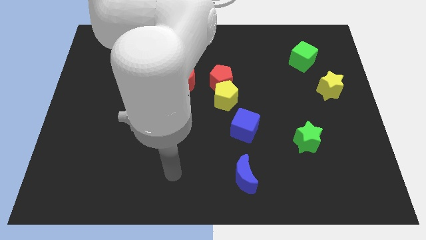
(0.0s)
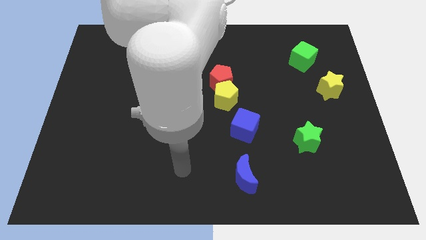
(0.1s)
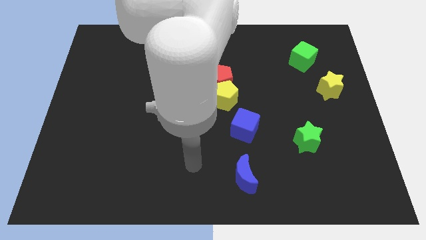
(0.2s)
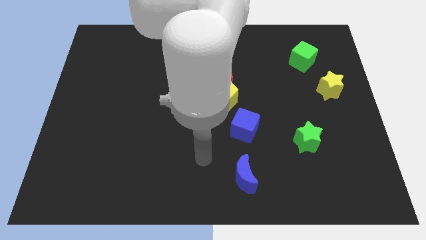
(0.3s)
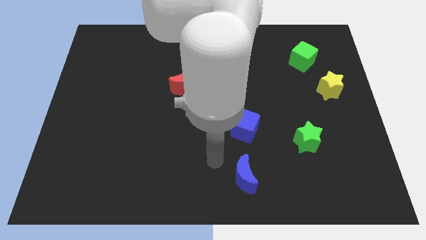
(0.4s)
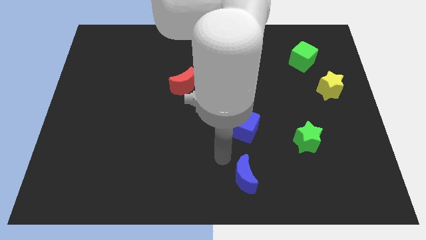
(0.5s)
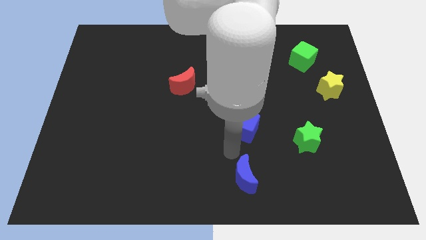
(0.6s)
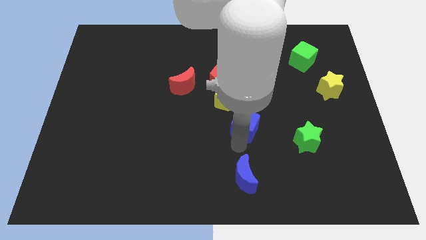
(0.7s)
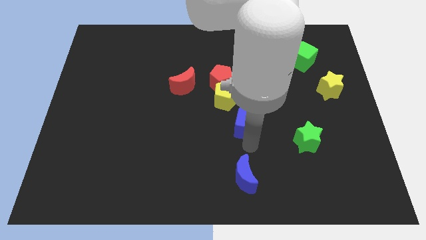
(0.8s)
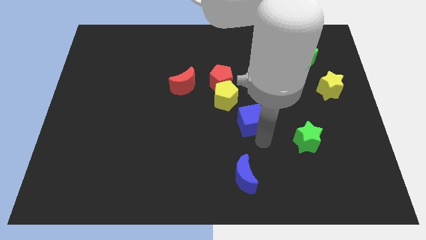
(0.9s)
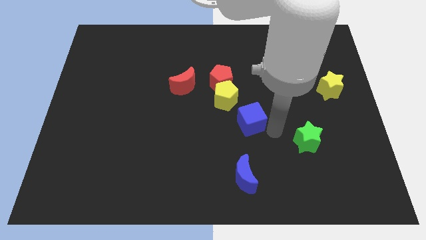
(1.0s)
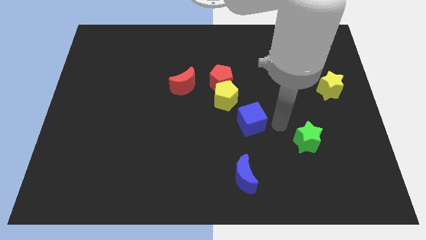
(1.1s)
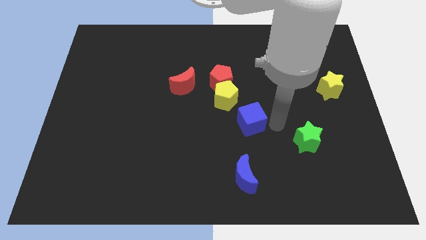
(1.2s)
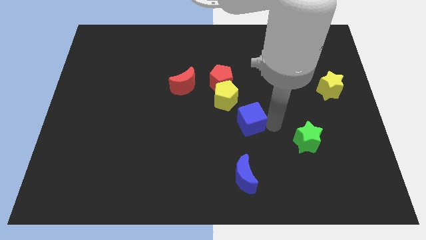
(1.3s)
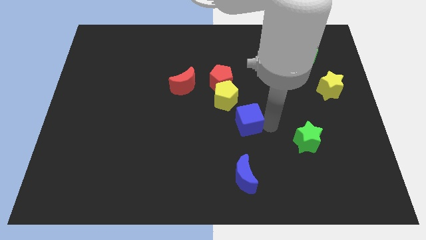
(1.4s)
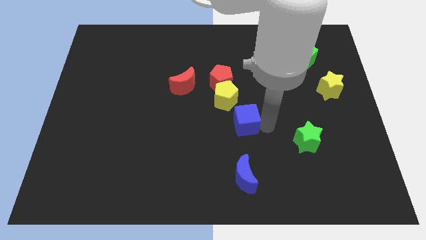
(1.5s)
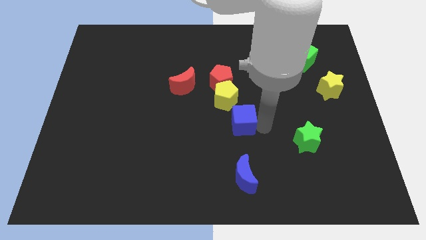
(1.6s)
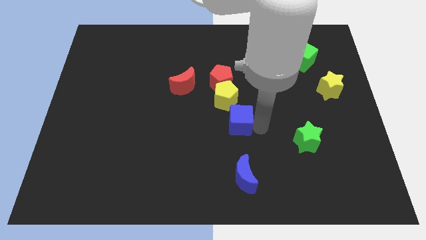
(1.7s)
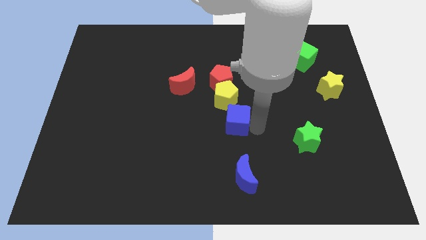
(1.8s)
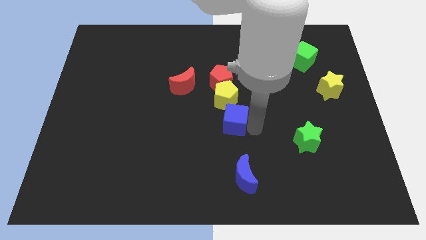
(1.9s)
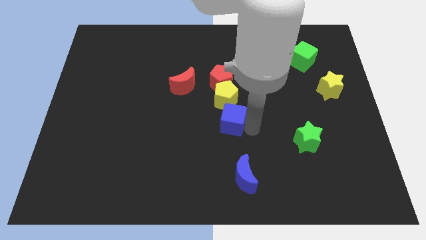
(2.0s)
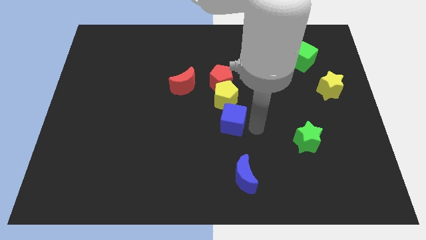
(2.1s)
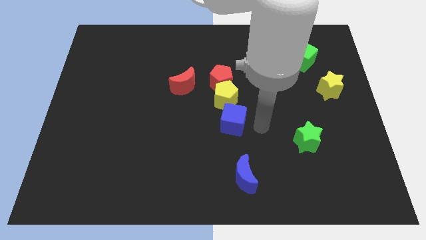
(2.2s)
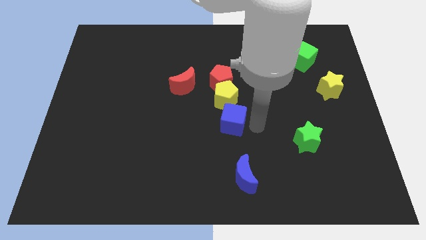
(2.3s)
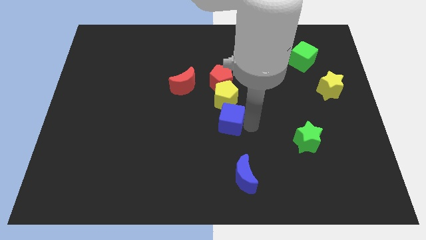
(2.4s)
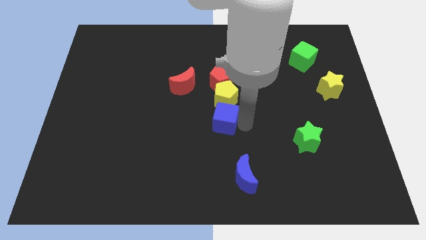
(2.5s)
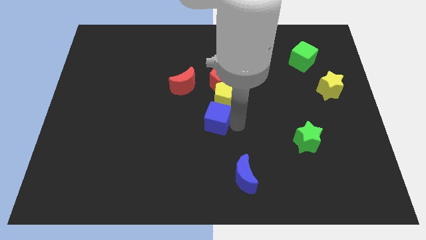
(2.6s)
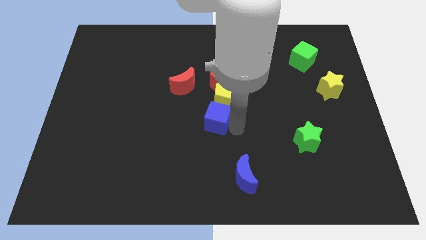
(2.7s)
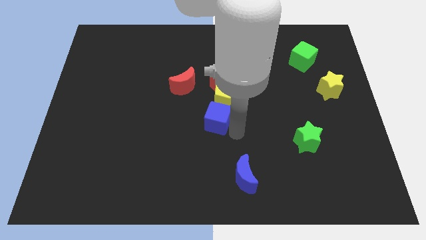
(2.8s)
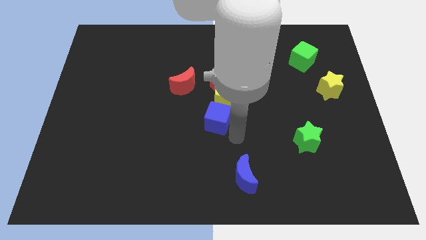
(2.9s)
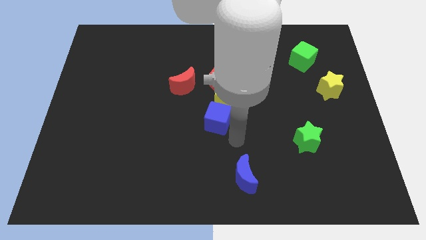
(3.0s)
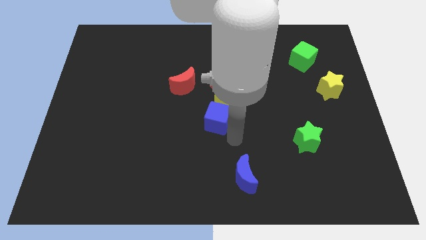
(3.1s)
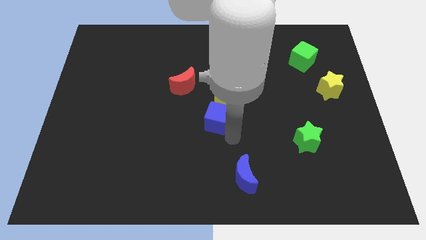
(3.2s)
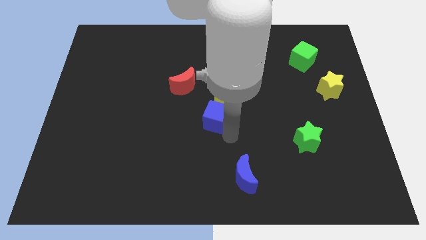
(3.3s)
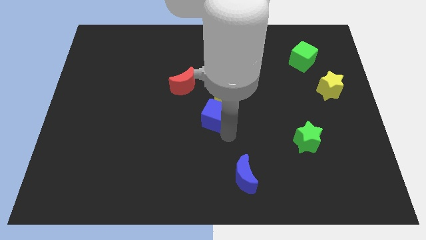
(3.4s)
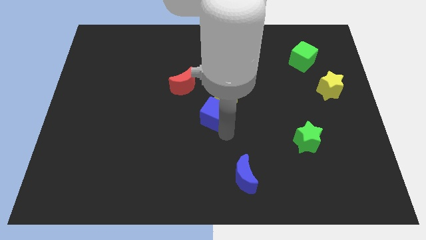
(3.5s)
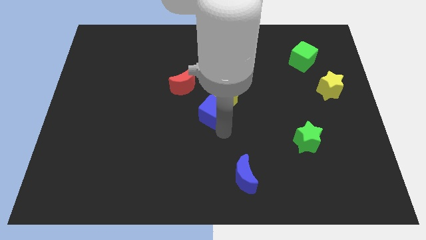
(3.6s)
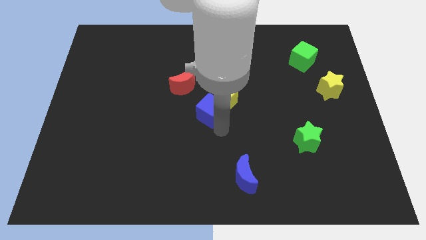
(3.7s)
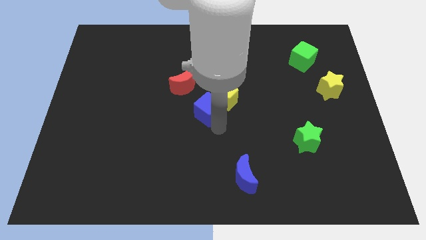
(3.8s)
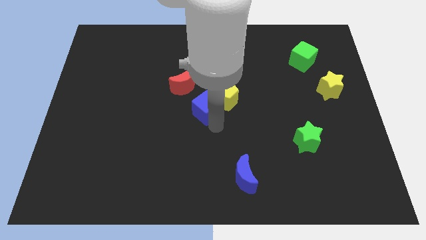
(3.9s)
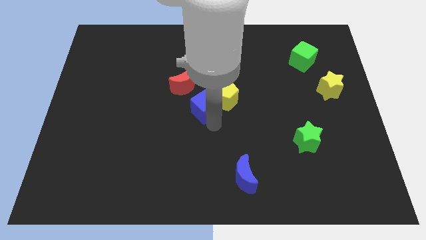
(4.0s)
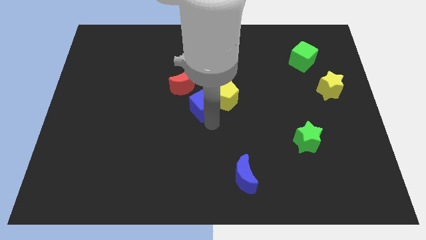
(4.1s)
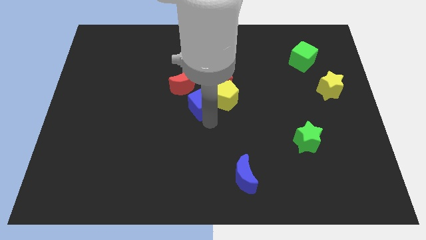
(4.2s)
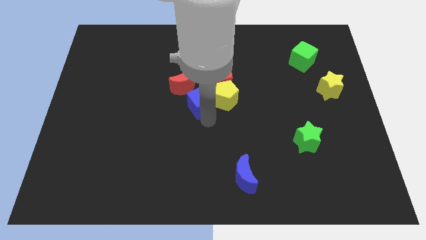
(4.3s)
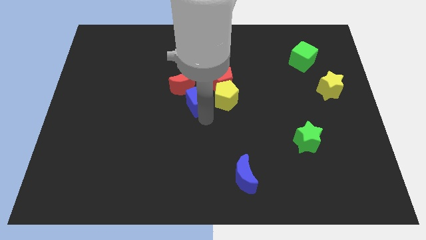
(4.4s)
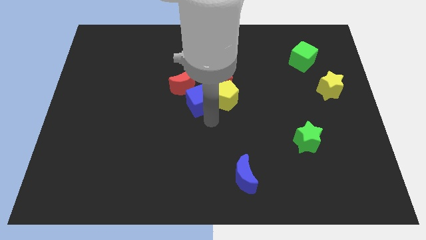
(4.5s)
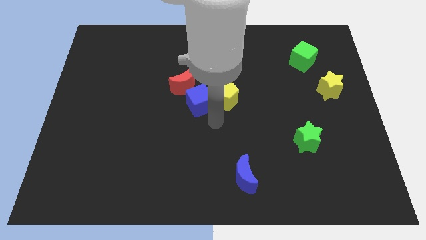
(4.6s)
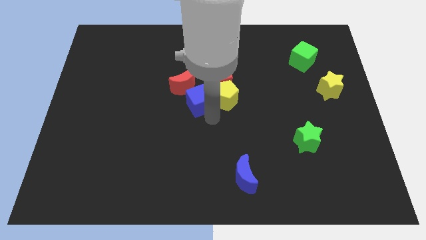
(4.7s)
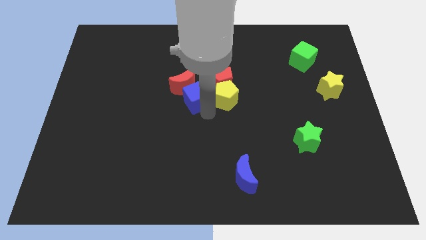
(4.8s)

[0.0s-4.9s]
move the blue cube next to the red moon

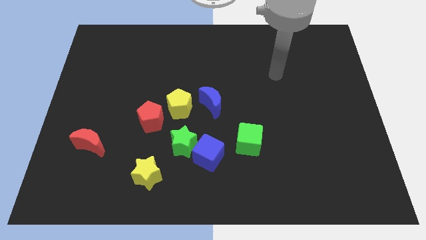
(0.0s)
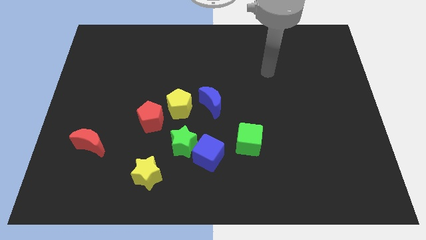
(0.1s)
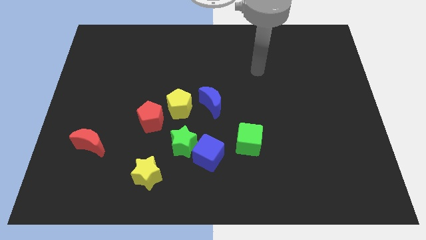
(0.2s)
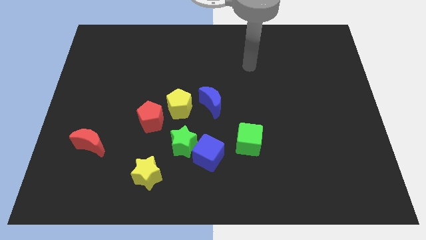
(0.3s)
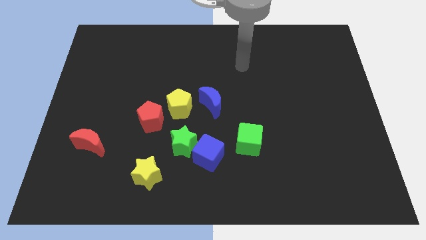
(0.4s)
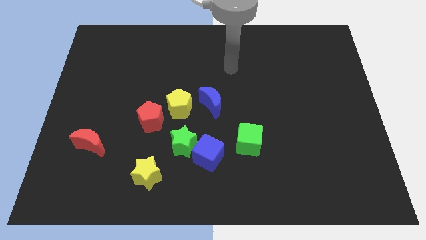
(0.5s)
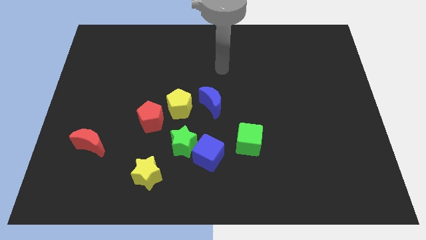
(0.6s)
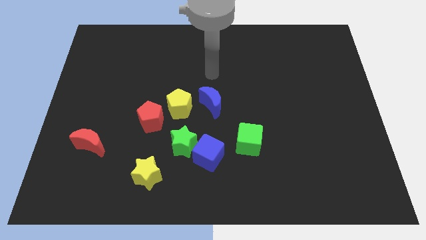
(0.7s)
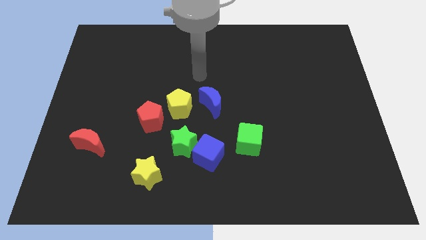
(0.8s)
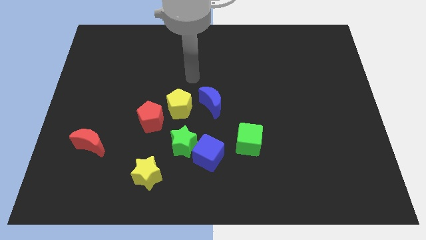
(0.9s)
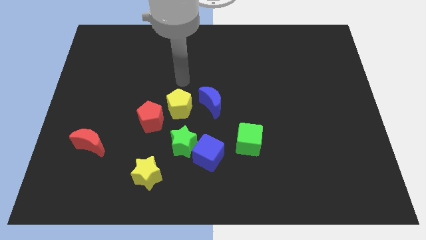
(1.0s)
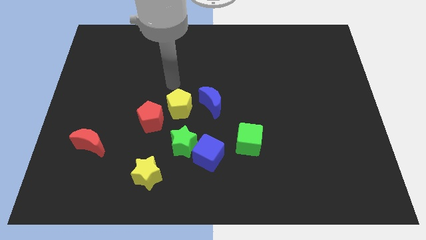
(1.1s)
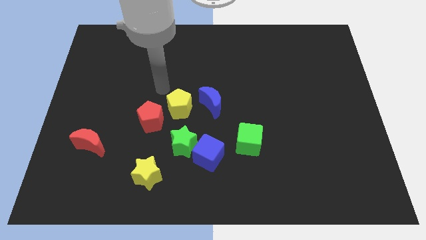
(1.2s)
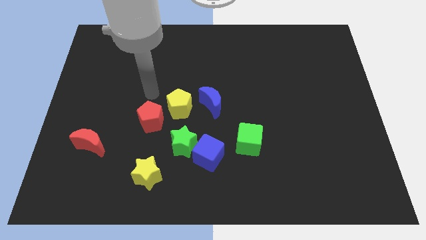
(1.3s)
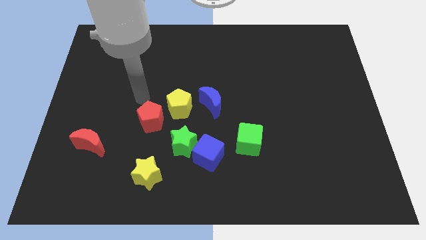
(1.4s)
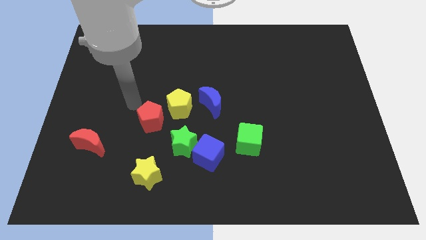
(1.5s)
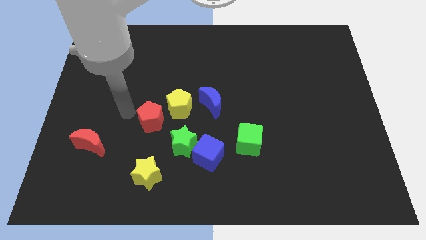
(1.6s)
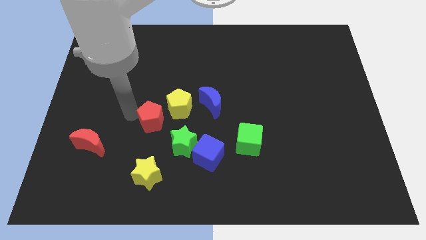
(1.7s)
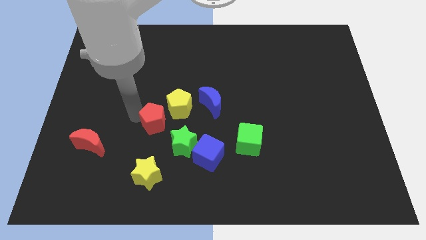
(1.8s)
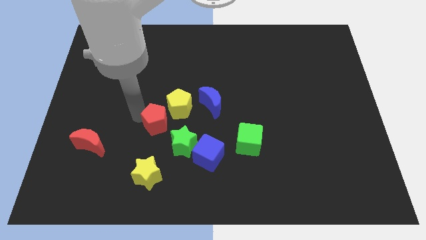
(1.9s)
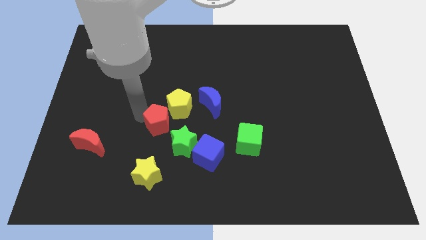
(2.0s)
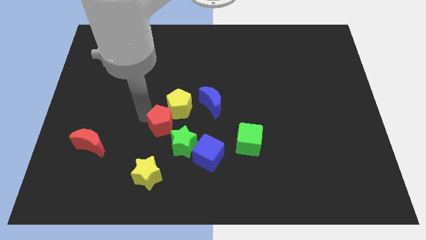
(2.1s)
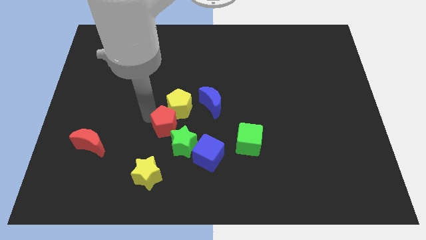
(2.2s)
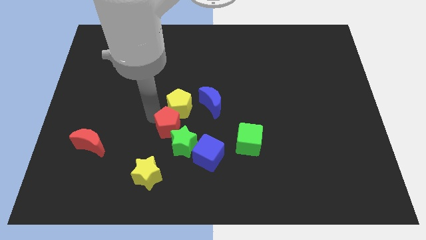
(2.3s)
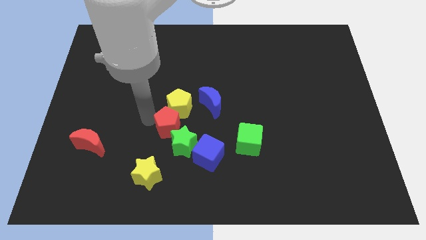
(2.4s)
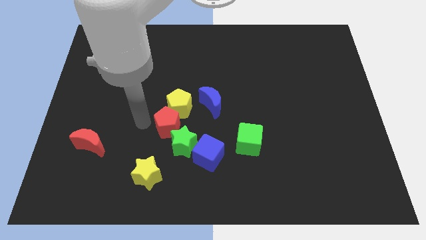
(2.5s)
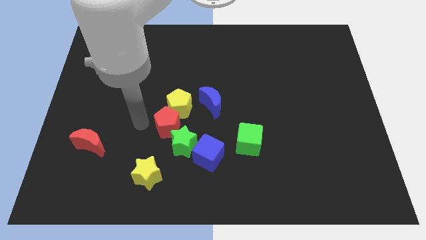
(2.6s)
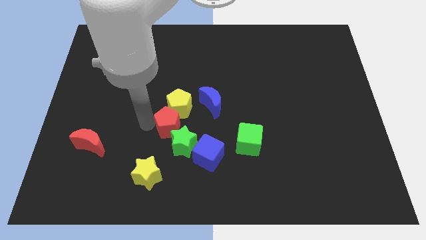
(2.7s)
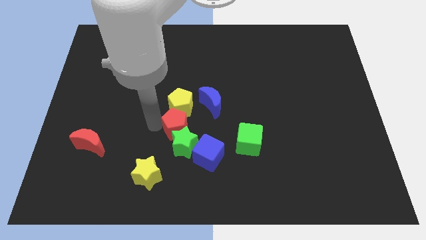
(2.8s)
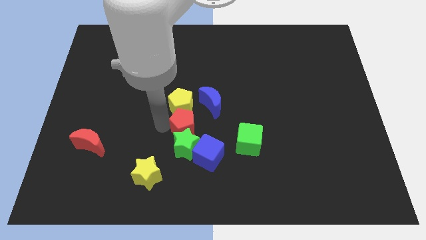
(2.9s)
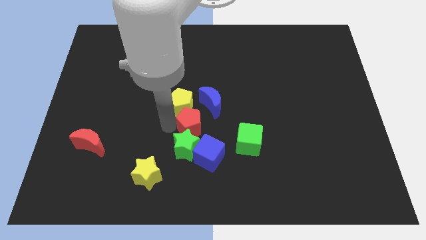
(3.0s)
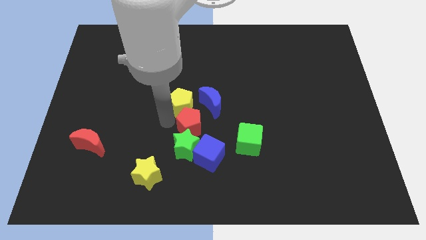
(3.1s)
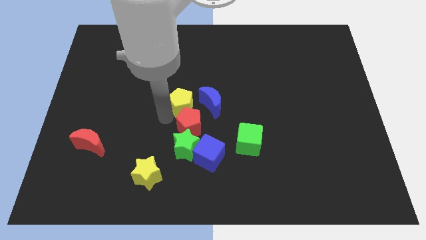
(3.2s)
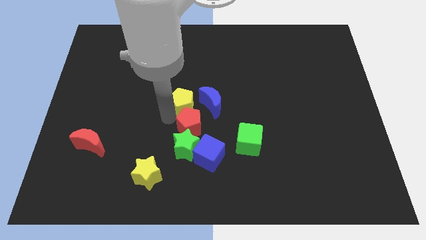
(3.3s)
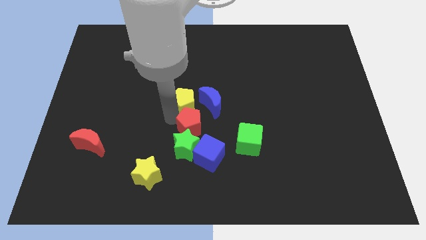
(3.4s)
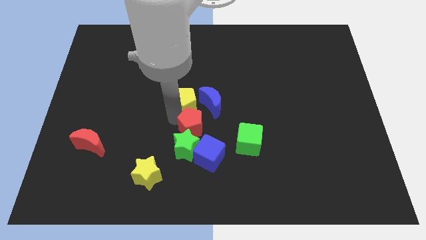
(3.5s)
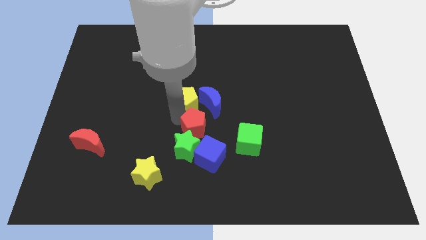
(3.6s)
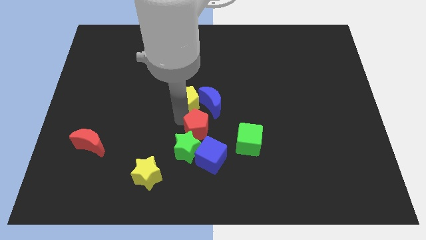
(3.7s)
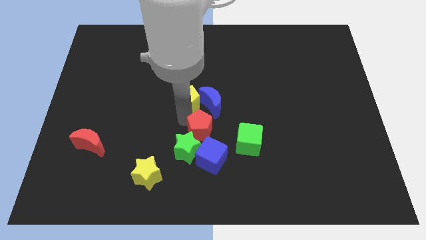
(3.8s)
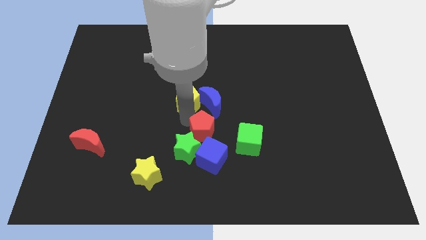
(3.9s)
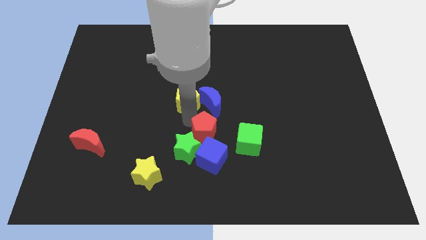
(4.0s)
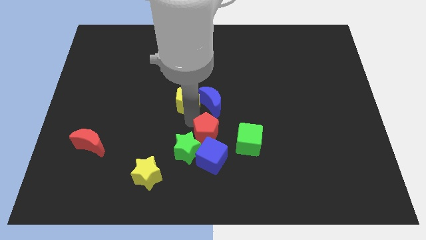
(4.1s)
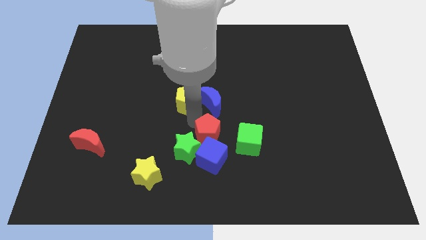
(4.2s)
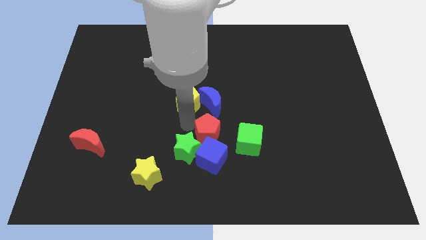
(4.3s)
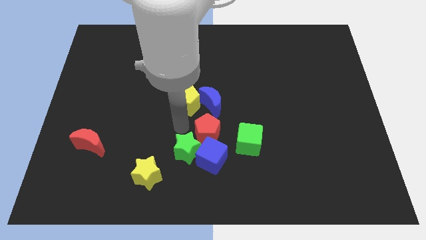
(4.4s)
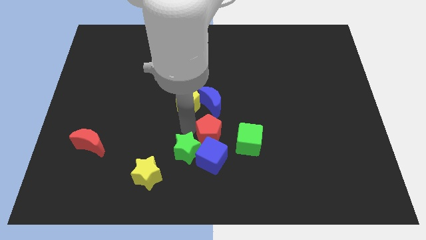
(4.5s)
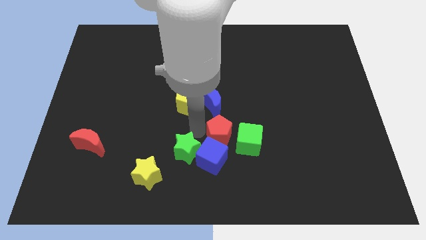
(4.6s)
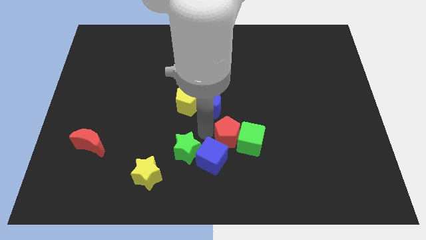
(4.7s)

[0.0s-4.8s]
slide the red pentagon close to the green cube
